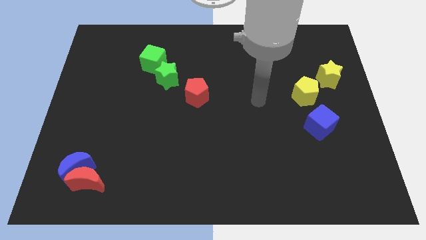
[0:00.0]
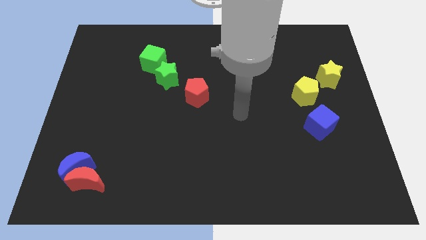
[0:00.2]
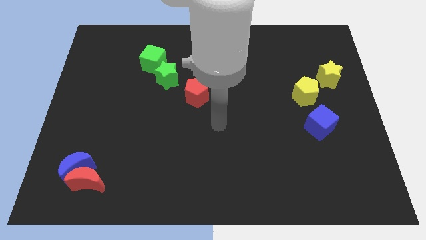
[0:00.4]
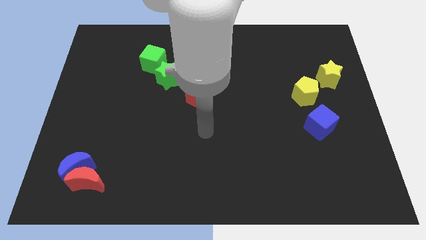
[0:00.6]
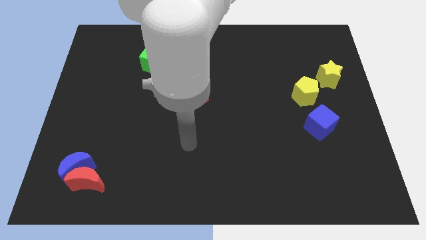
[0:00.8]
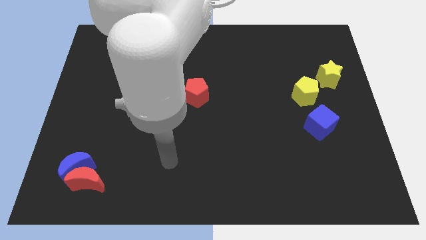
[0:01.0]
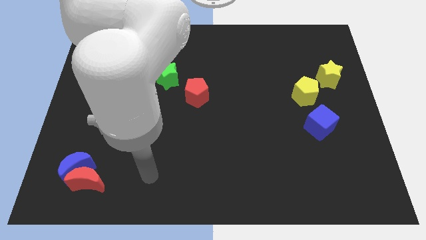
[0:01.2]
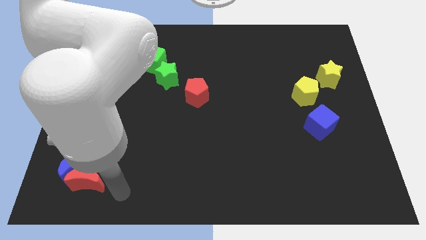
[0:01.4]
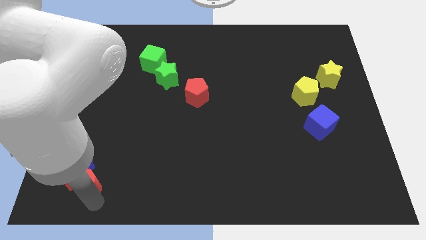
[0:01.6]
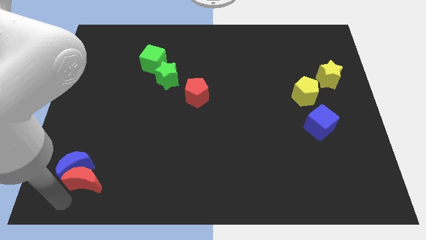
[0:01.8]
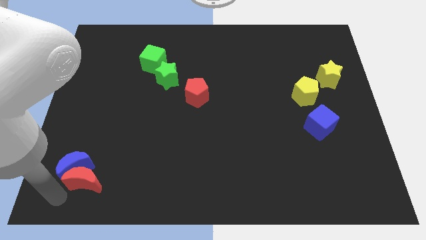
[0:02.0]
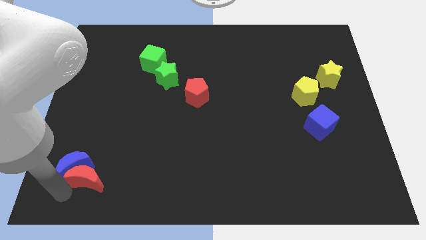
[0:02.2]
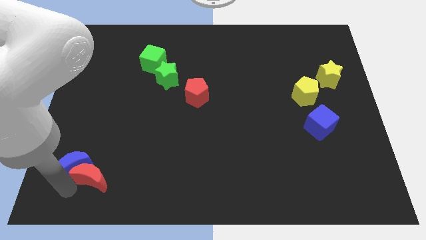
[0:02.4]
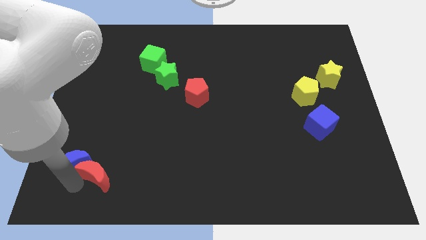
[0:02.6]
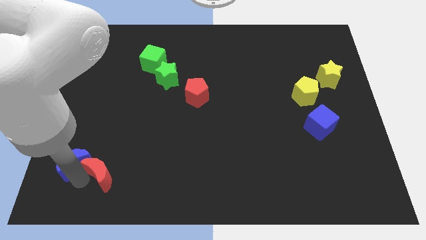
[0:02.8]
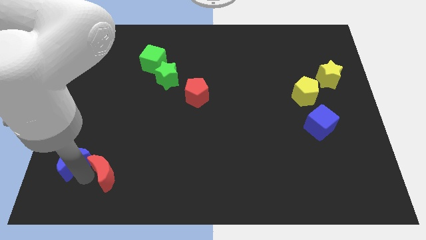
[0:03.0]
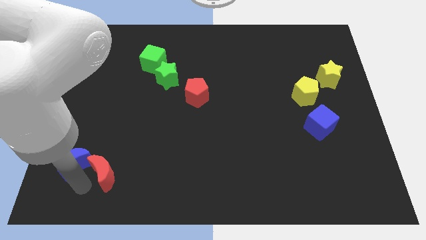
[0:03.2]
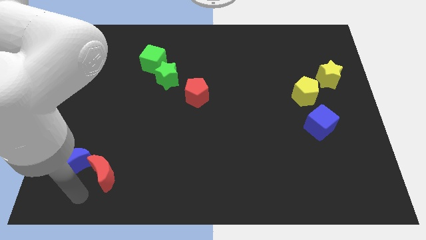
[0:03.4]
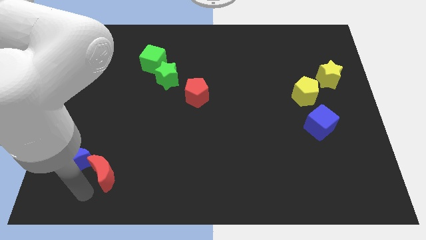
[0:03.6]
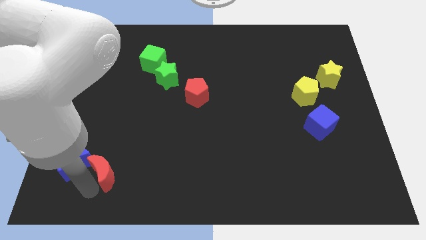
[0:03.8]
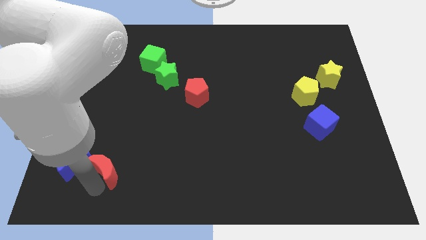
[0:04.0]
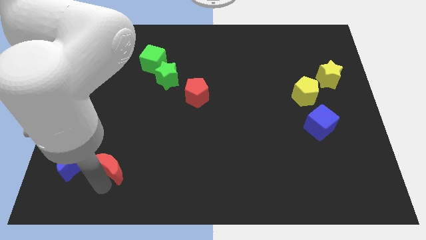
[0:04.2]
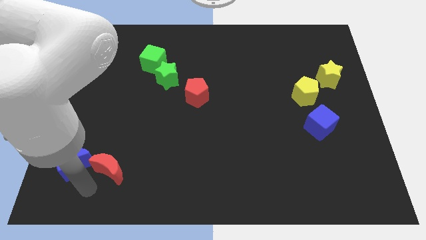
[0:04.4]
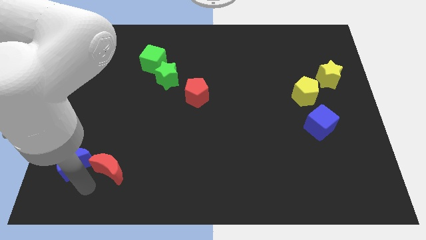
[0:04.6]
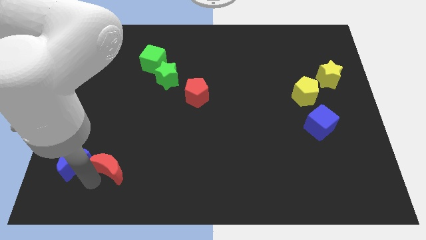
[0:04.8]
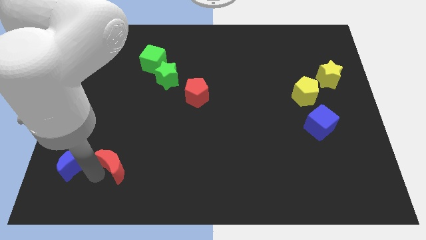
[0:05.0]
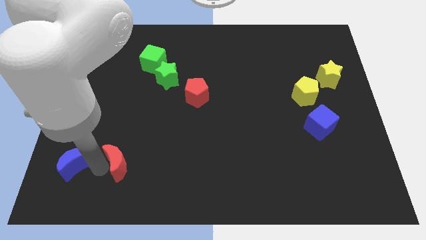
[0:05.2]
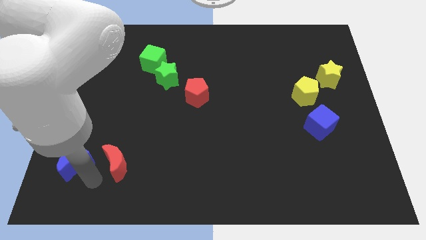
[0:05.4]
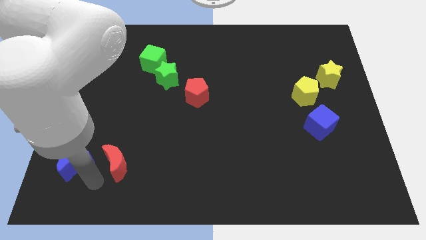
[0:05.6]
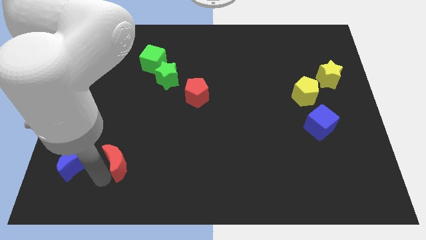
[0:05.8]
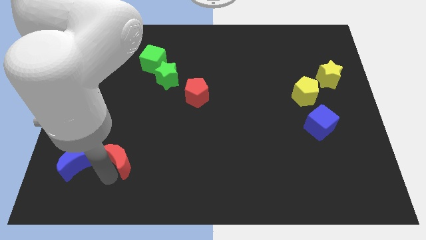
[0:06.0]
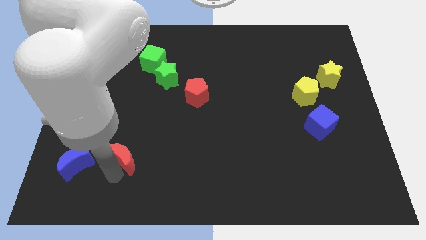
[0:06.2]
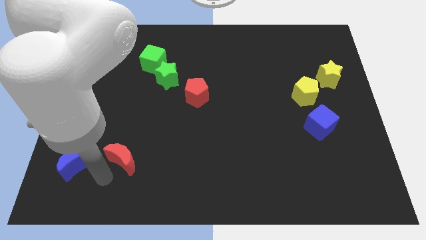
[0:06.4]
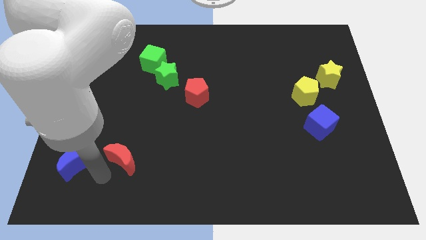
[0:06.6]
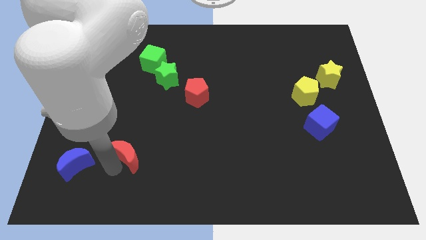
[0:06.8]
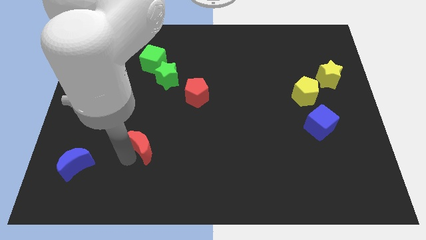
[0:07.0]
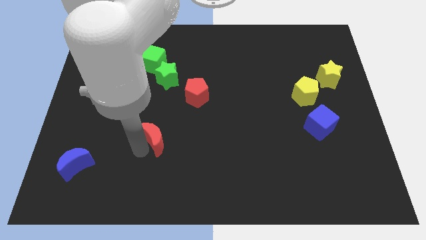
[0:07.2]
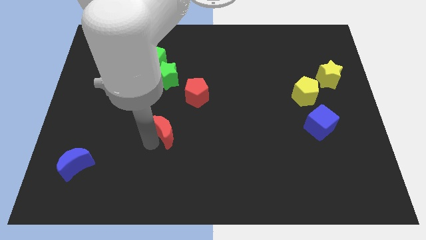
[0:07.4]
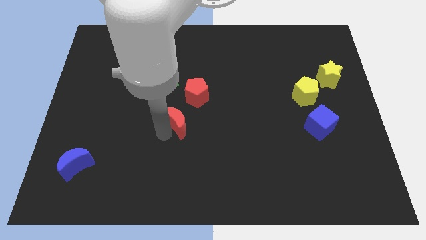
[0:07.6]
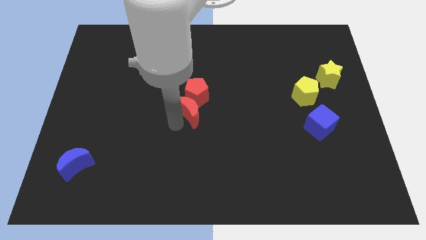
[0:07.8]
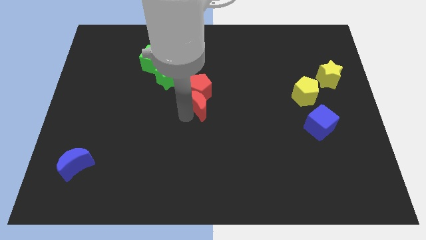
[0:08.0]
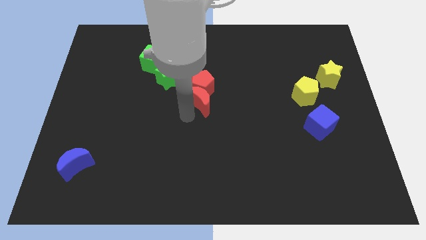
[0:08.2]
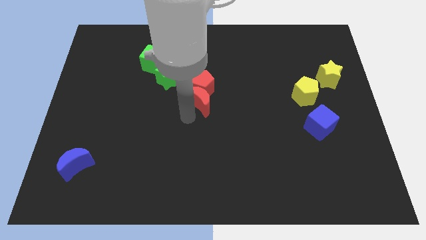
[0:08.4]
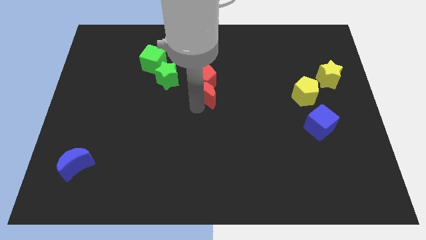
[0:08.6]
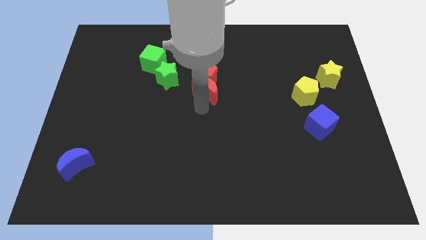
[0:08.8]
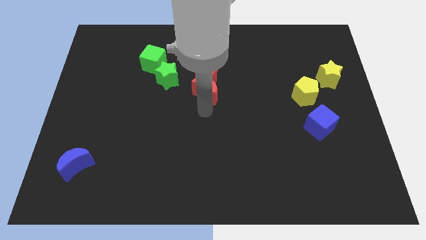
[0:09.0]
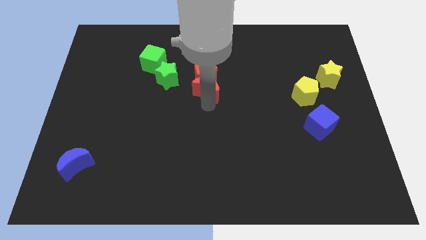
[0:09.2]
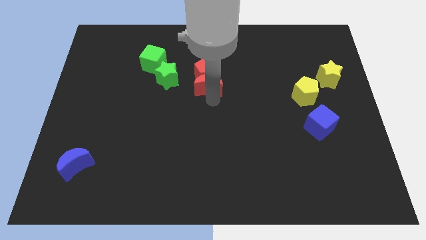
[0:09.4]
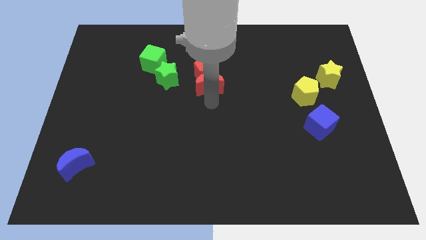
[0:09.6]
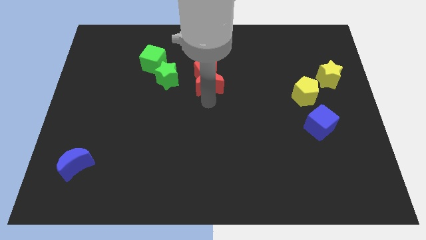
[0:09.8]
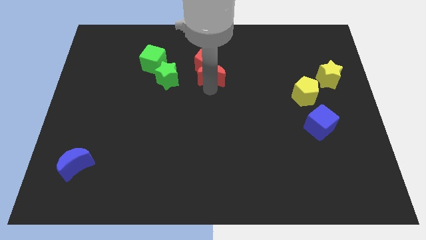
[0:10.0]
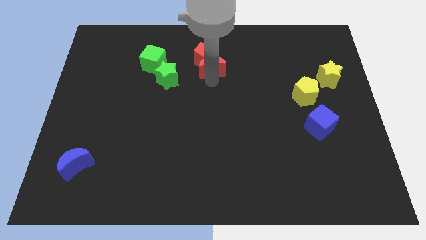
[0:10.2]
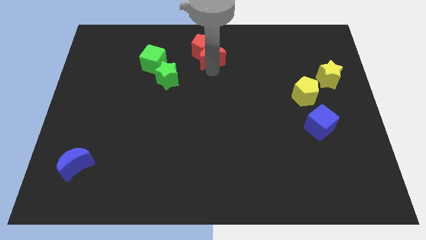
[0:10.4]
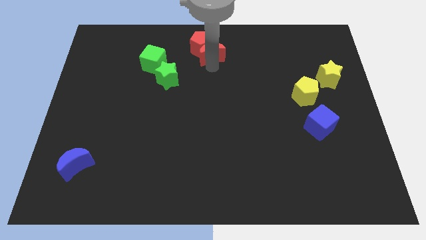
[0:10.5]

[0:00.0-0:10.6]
move the red moon to the towards your base

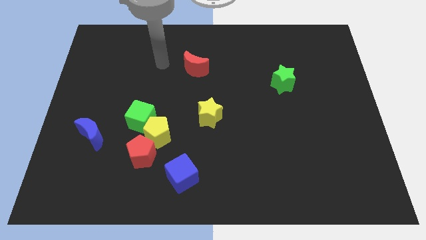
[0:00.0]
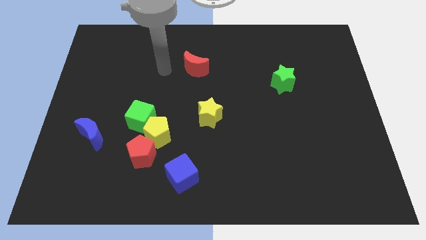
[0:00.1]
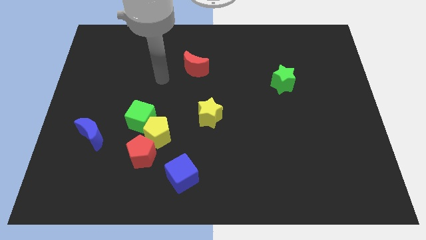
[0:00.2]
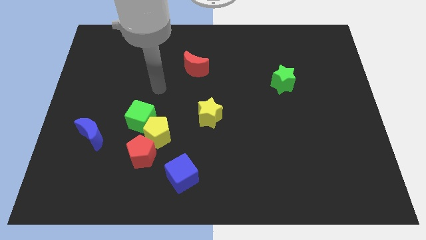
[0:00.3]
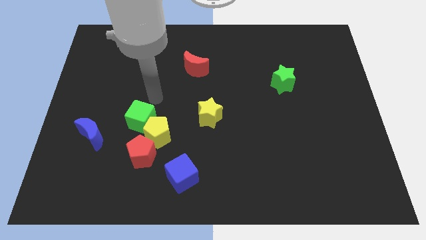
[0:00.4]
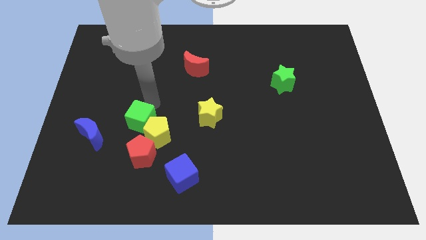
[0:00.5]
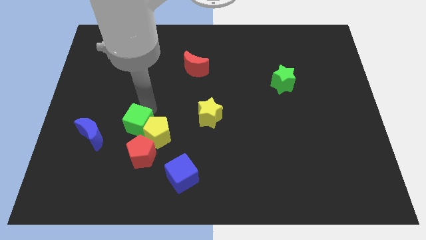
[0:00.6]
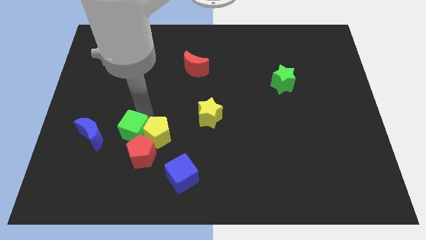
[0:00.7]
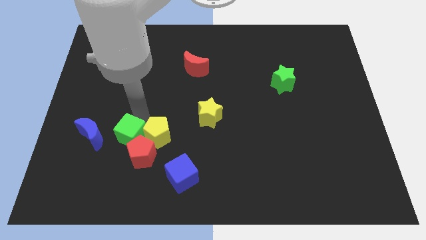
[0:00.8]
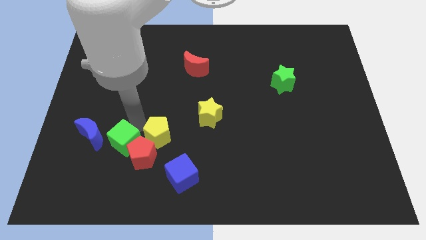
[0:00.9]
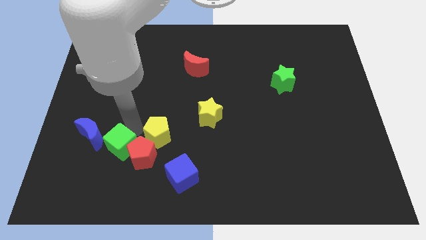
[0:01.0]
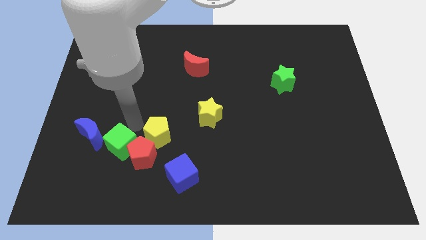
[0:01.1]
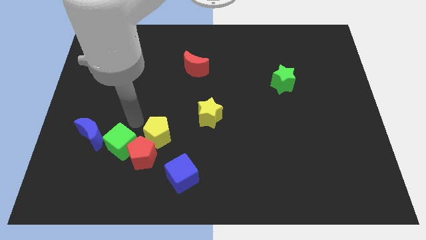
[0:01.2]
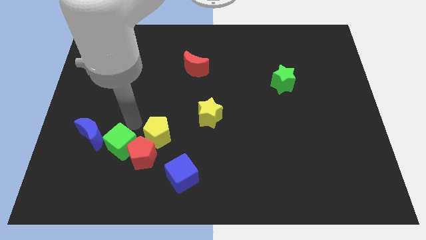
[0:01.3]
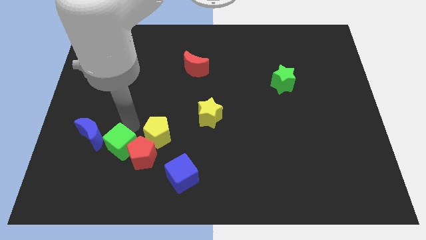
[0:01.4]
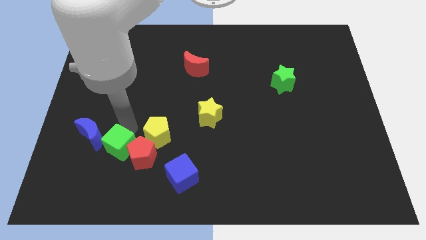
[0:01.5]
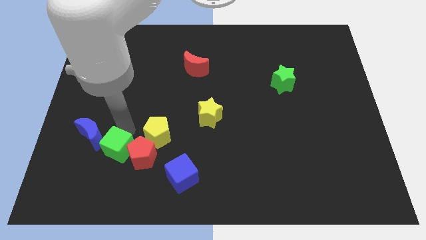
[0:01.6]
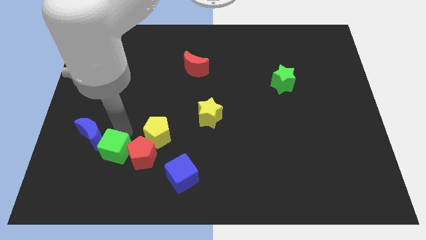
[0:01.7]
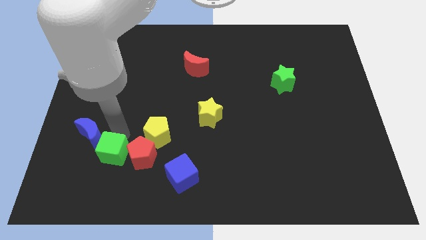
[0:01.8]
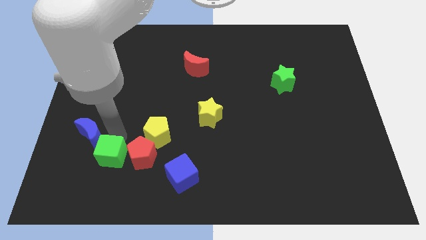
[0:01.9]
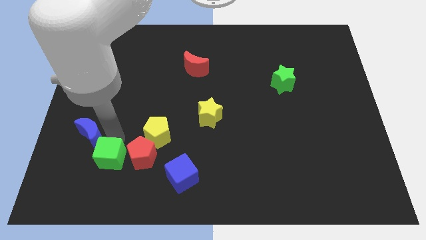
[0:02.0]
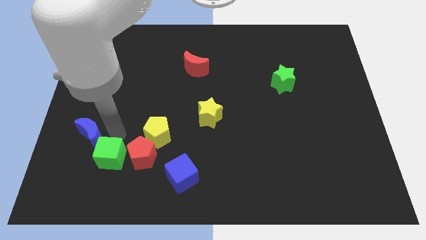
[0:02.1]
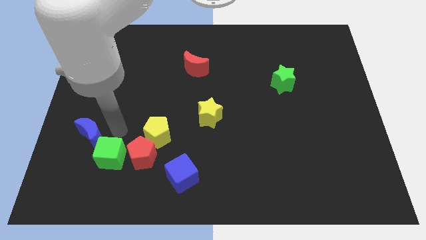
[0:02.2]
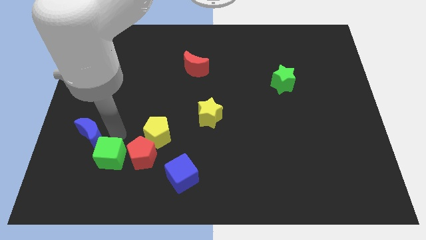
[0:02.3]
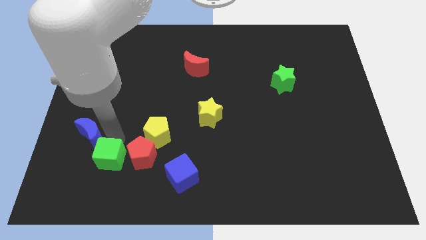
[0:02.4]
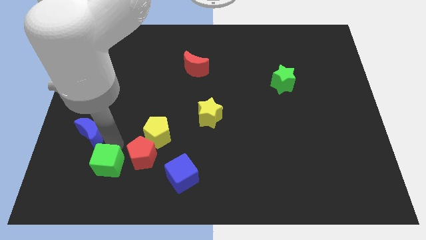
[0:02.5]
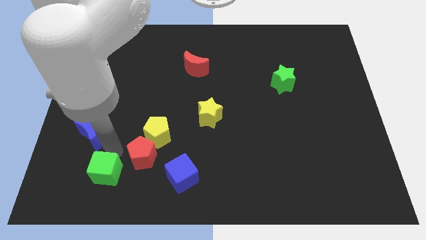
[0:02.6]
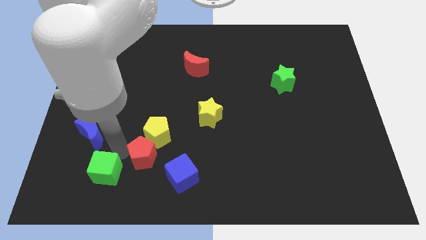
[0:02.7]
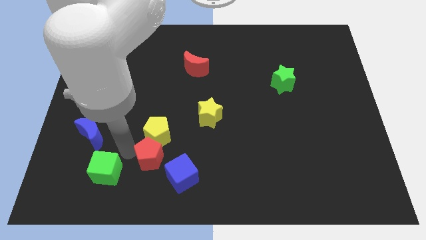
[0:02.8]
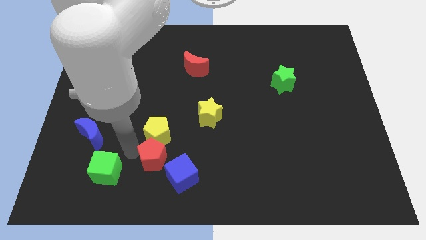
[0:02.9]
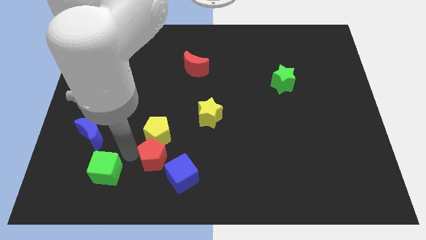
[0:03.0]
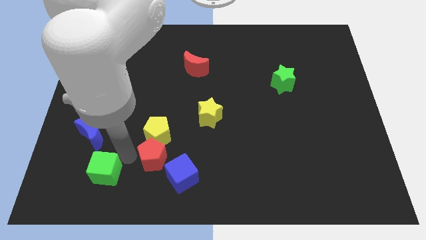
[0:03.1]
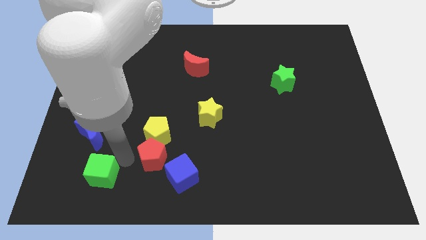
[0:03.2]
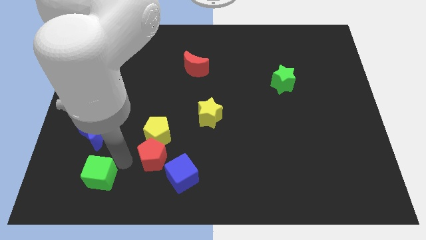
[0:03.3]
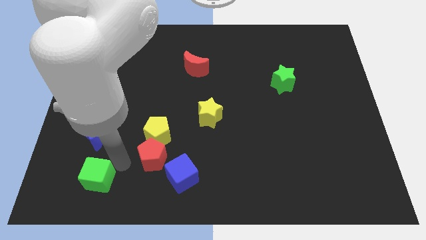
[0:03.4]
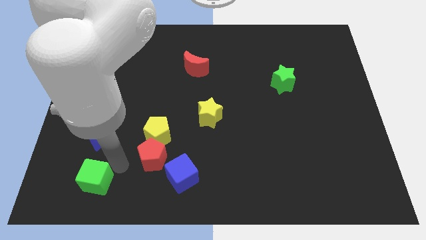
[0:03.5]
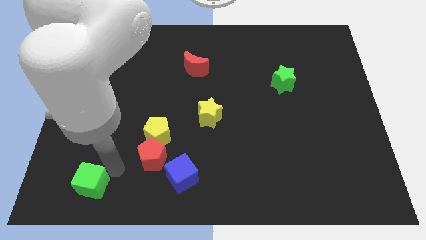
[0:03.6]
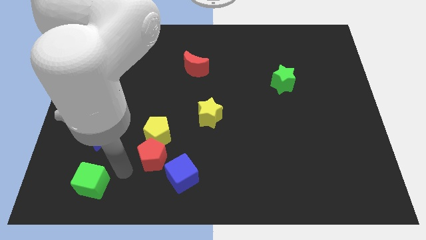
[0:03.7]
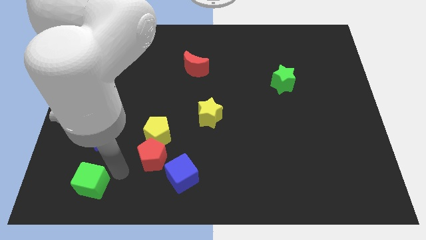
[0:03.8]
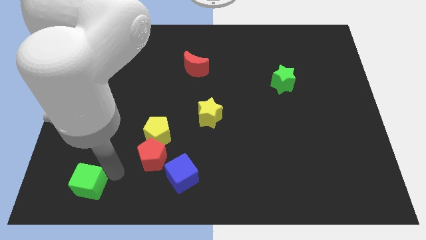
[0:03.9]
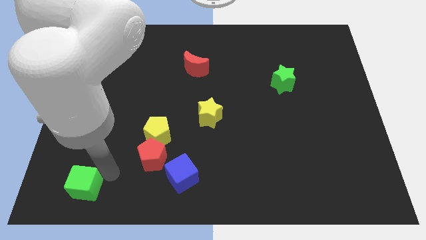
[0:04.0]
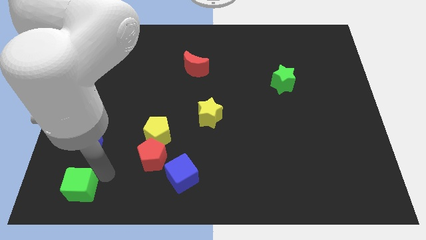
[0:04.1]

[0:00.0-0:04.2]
put the green cube to the bottom left
